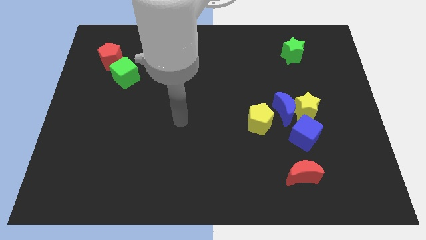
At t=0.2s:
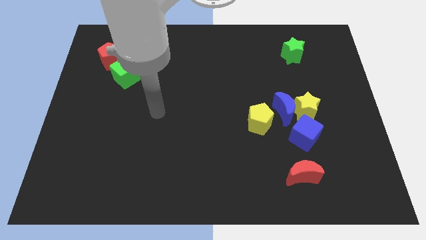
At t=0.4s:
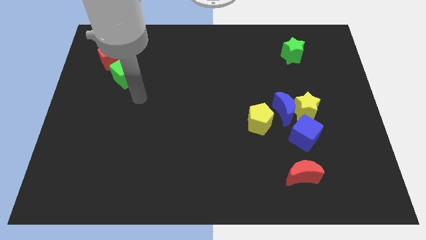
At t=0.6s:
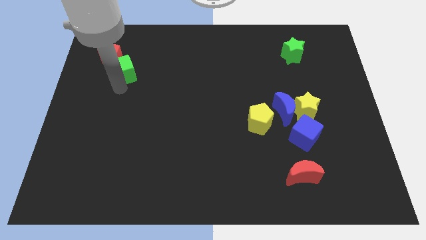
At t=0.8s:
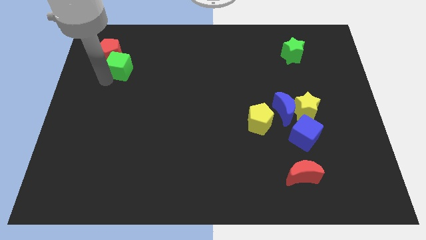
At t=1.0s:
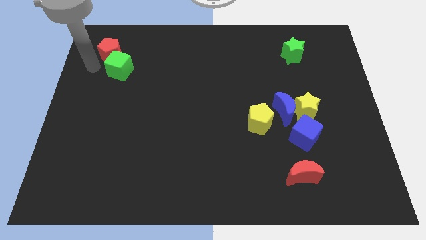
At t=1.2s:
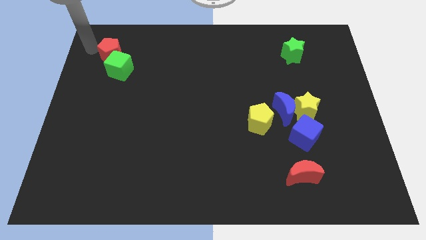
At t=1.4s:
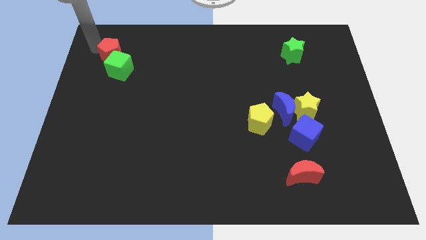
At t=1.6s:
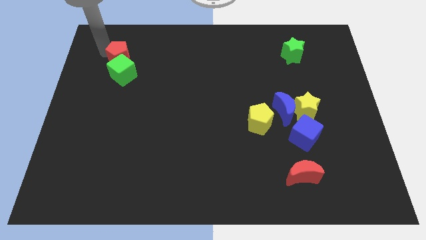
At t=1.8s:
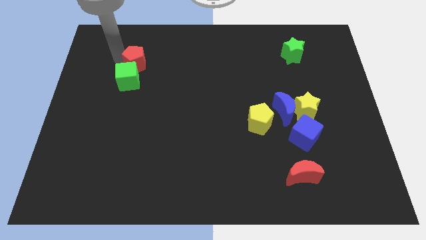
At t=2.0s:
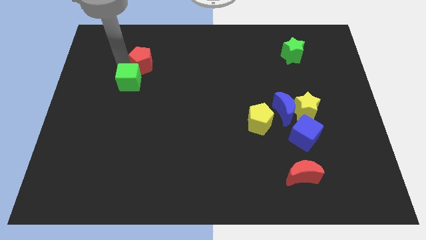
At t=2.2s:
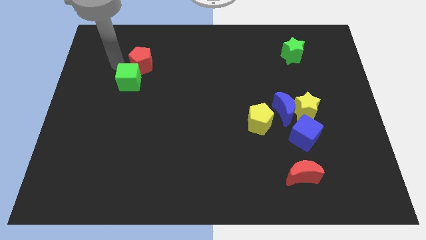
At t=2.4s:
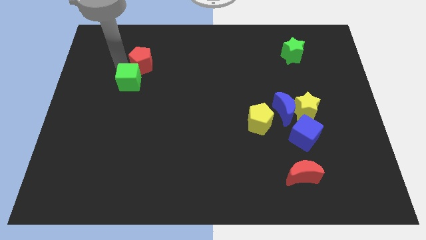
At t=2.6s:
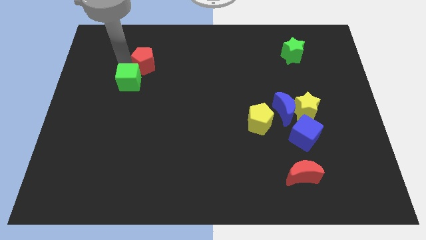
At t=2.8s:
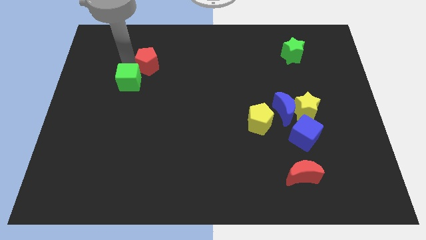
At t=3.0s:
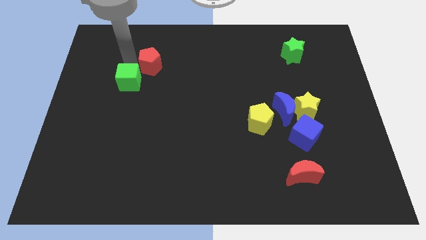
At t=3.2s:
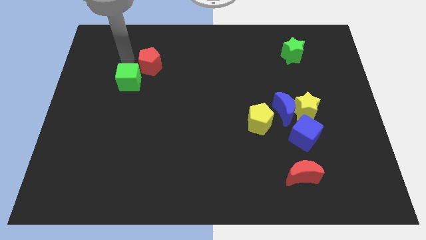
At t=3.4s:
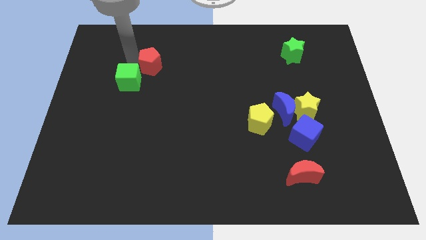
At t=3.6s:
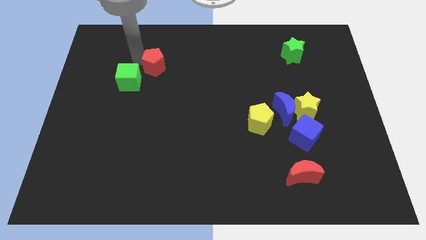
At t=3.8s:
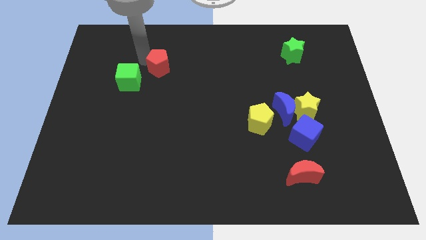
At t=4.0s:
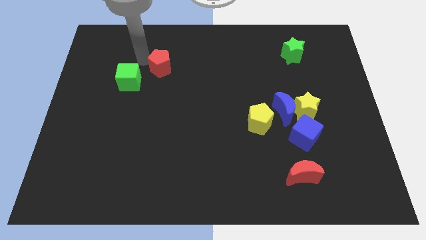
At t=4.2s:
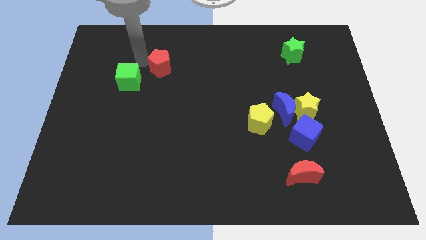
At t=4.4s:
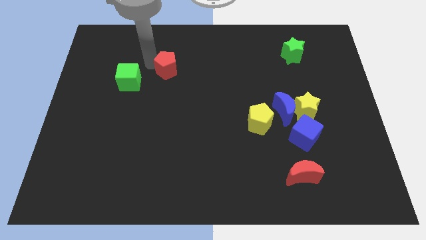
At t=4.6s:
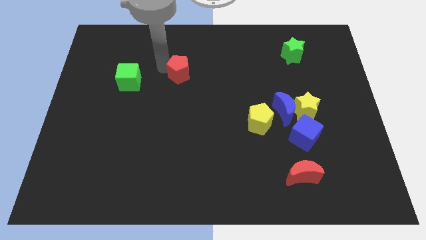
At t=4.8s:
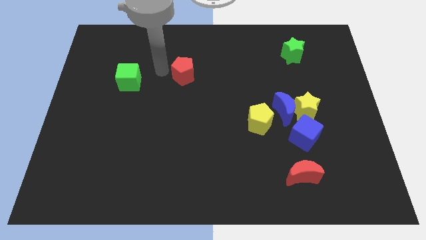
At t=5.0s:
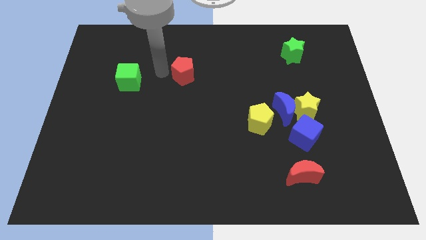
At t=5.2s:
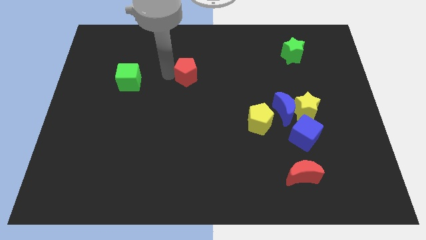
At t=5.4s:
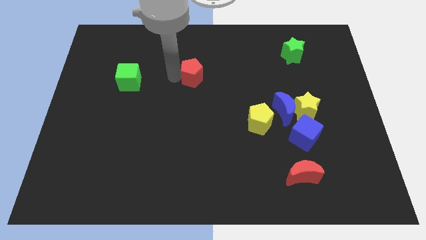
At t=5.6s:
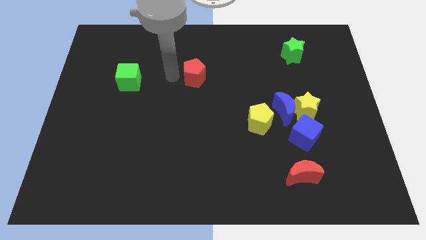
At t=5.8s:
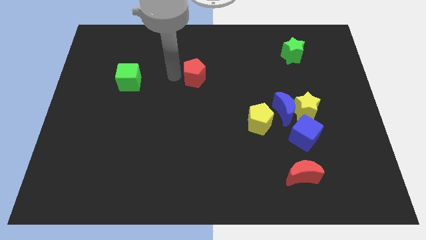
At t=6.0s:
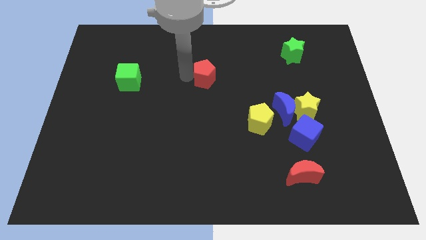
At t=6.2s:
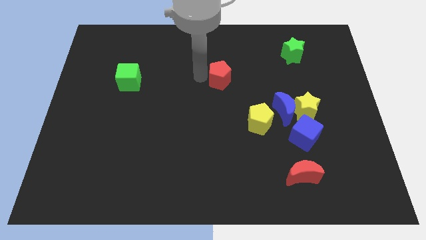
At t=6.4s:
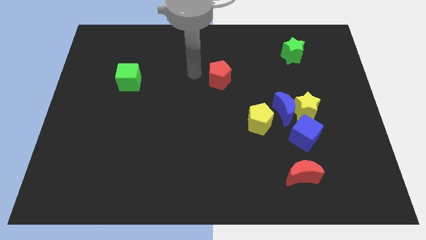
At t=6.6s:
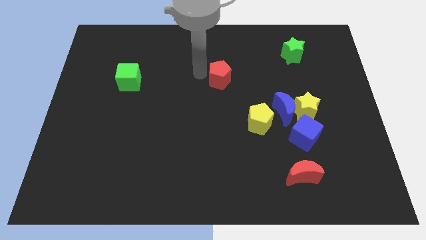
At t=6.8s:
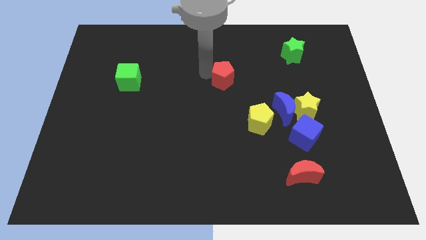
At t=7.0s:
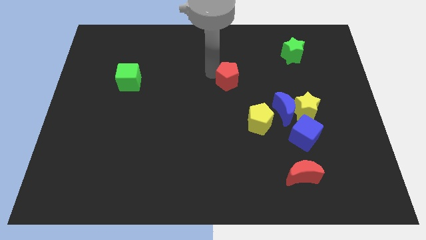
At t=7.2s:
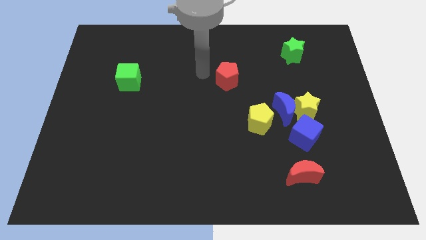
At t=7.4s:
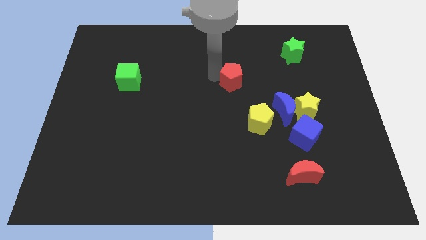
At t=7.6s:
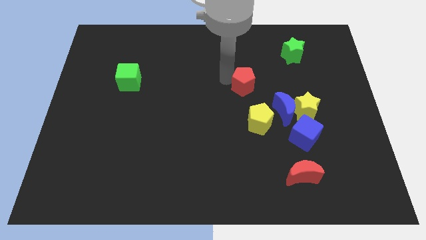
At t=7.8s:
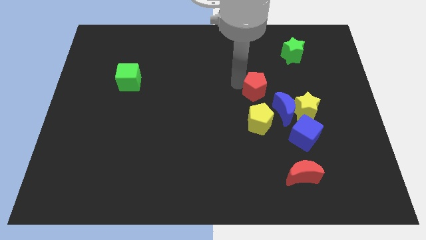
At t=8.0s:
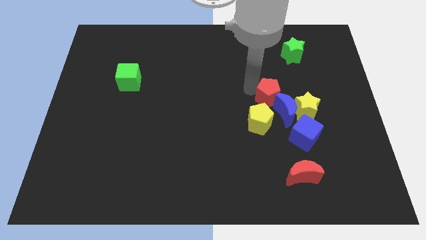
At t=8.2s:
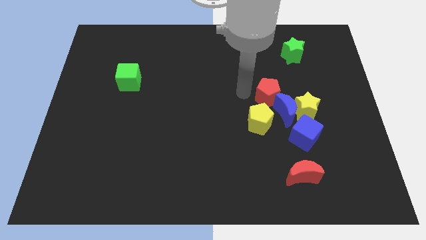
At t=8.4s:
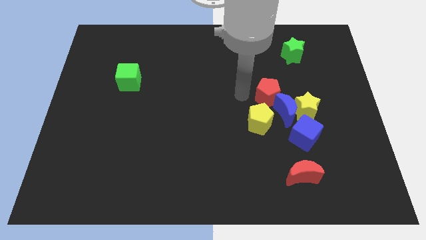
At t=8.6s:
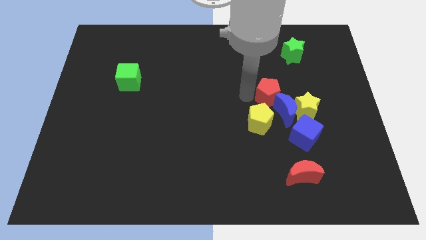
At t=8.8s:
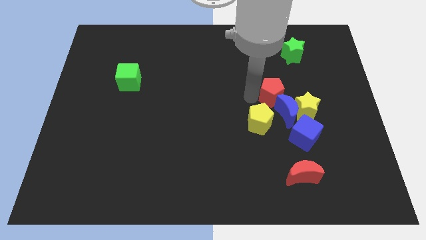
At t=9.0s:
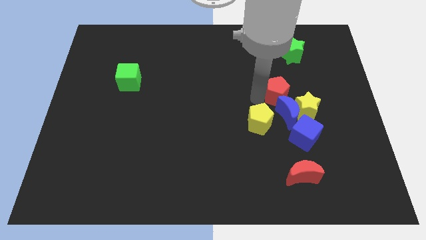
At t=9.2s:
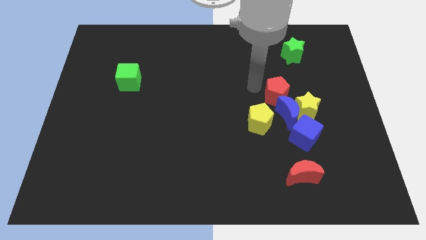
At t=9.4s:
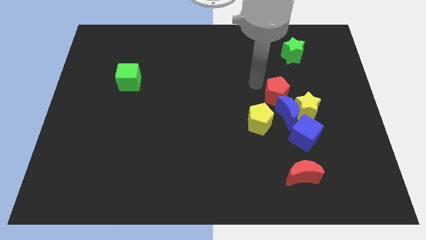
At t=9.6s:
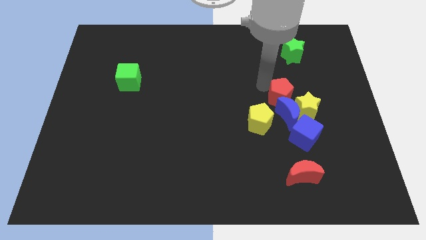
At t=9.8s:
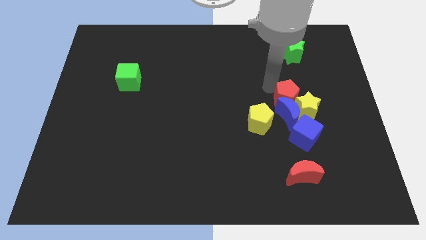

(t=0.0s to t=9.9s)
move the red pentagon next to the yellow star

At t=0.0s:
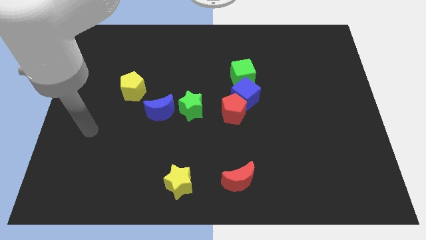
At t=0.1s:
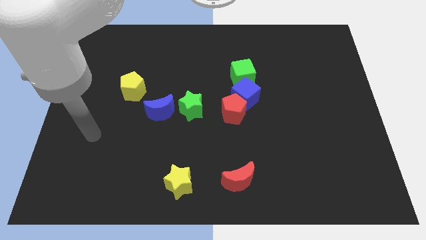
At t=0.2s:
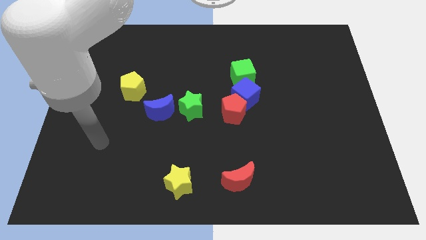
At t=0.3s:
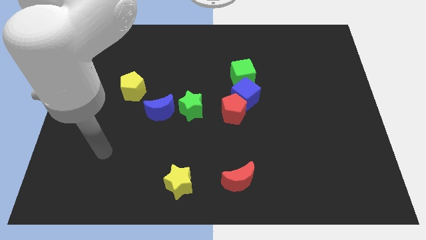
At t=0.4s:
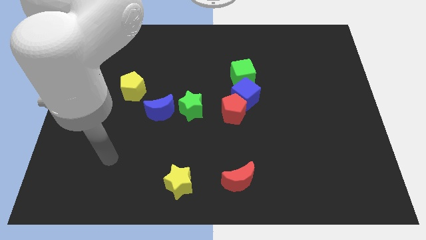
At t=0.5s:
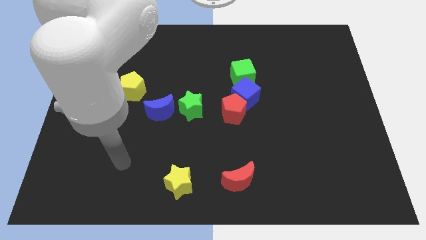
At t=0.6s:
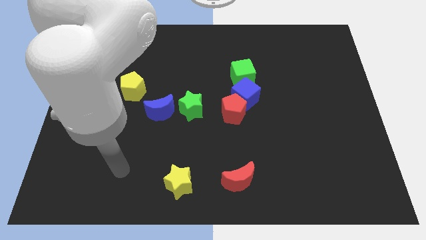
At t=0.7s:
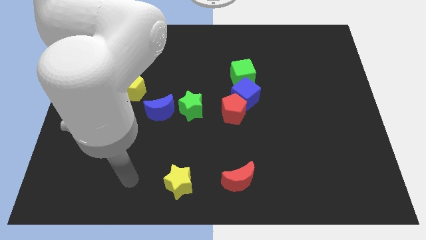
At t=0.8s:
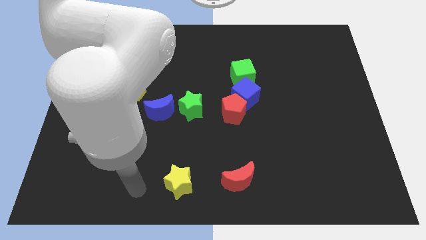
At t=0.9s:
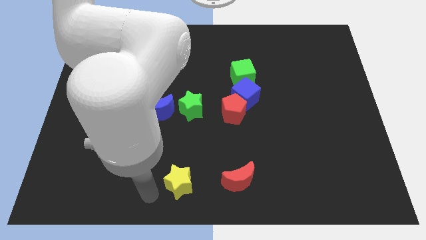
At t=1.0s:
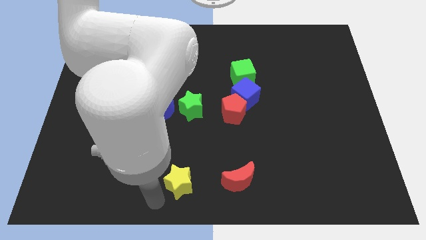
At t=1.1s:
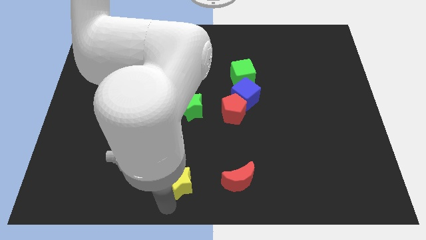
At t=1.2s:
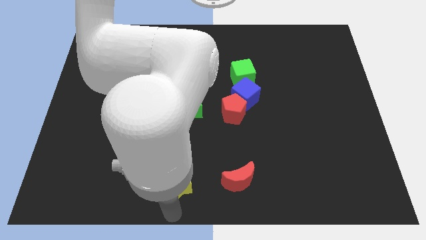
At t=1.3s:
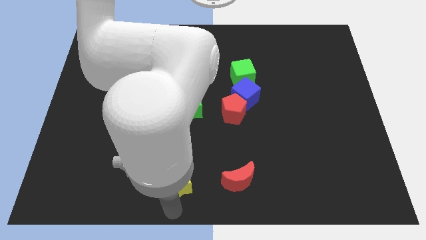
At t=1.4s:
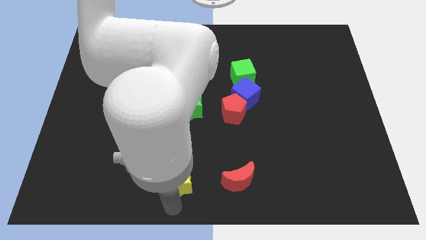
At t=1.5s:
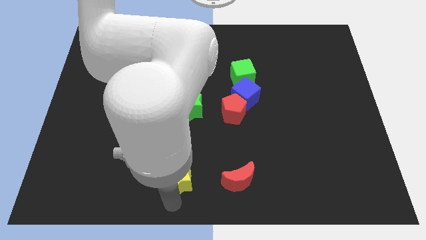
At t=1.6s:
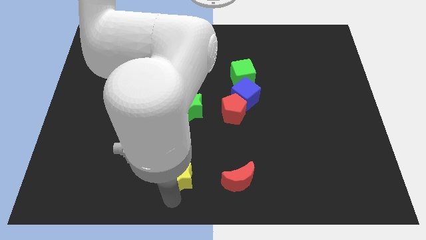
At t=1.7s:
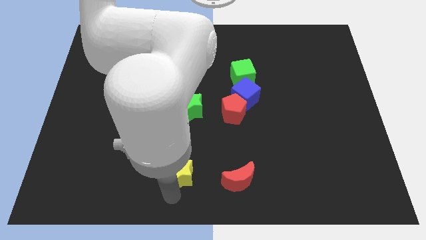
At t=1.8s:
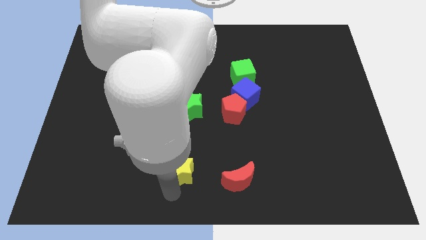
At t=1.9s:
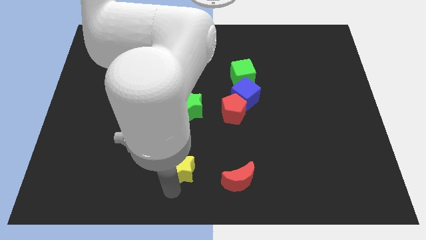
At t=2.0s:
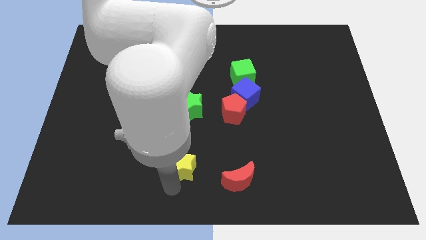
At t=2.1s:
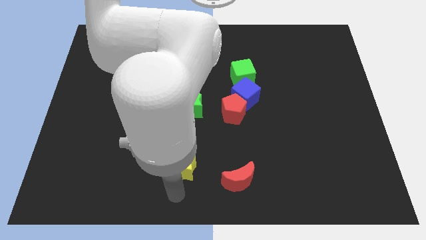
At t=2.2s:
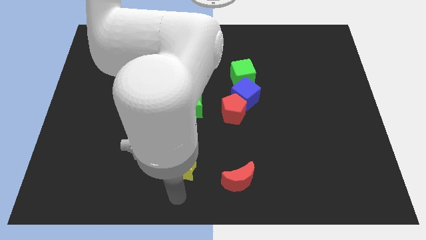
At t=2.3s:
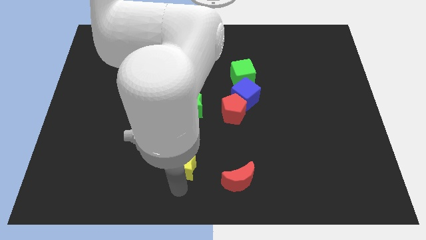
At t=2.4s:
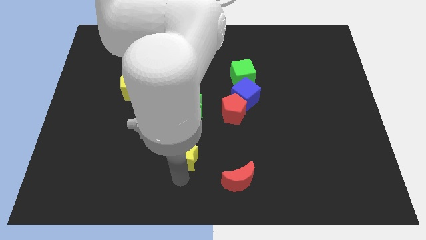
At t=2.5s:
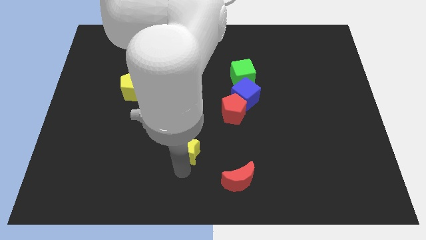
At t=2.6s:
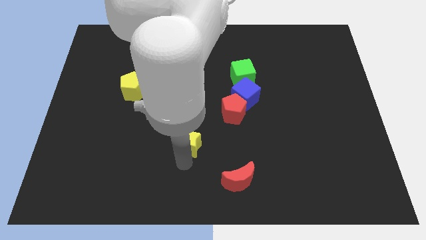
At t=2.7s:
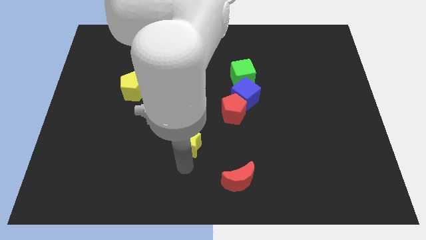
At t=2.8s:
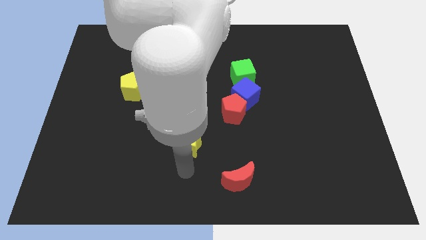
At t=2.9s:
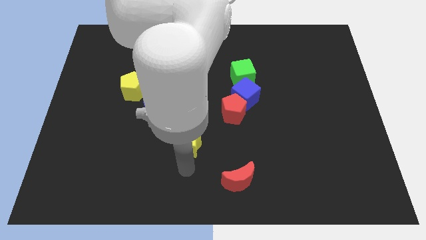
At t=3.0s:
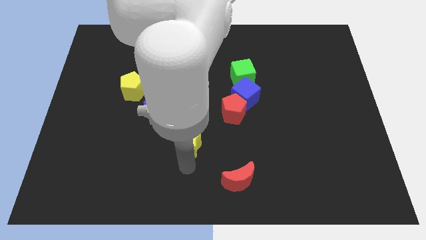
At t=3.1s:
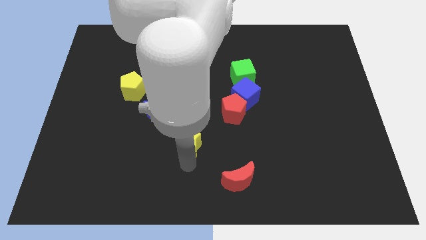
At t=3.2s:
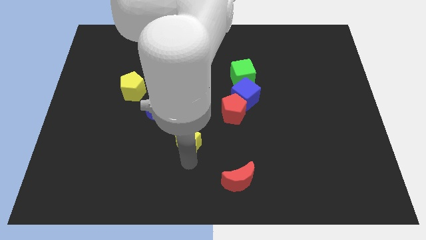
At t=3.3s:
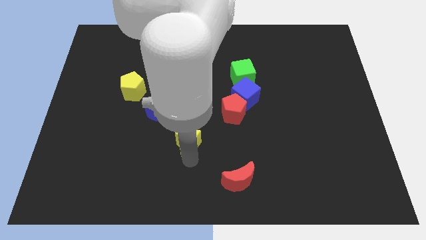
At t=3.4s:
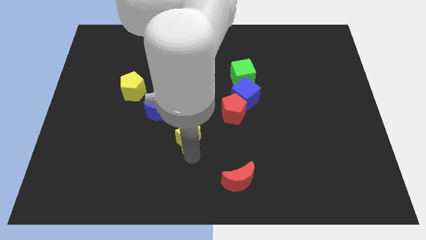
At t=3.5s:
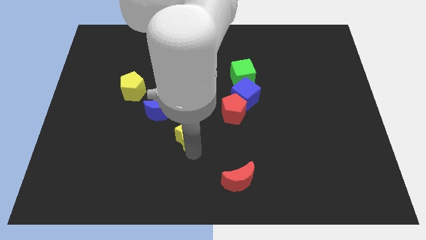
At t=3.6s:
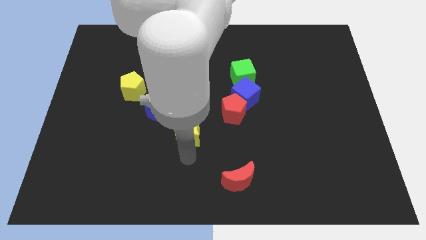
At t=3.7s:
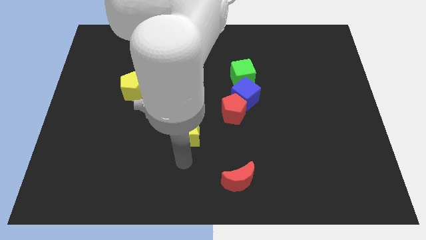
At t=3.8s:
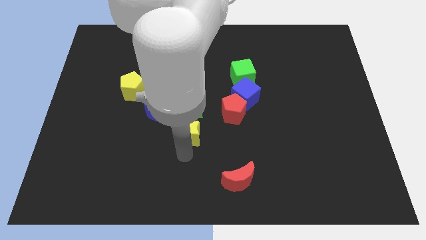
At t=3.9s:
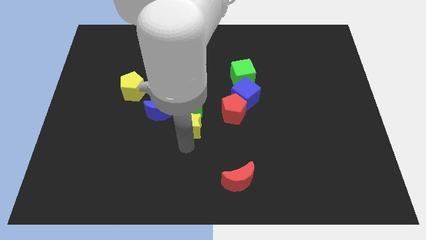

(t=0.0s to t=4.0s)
move the yellow star to the green star
